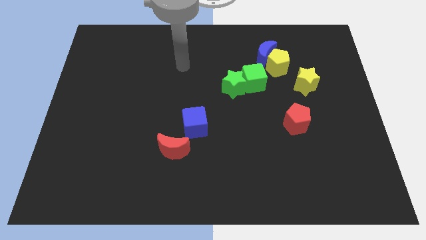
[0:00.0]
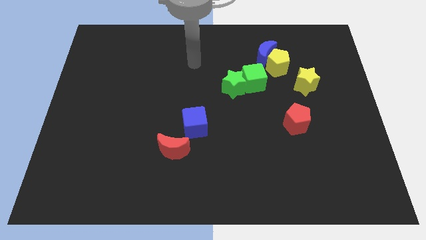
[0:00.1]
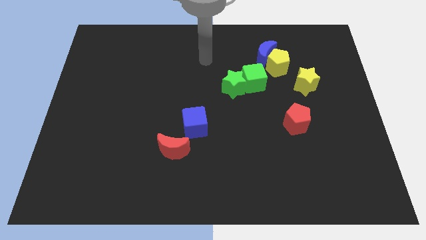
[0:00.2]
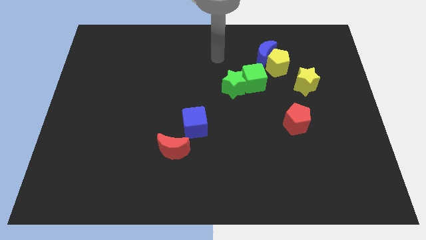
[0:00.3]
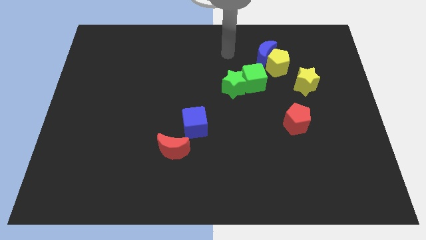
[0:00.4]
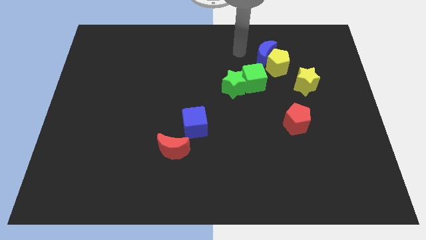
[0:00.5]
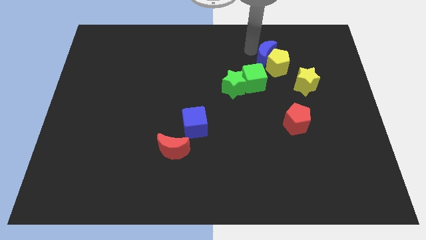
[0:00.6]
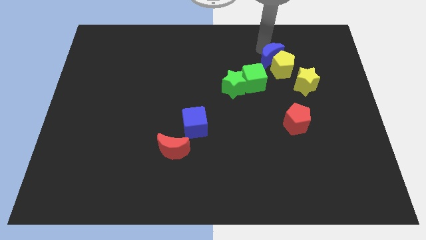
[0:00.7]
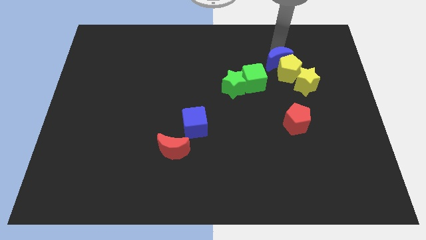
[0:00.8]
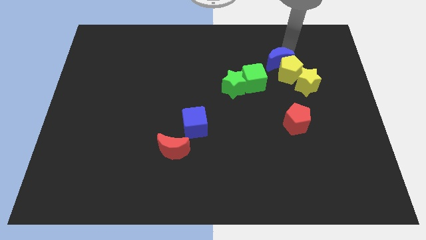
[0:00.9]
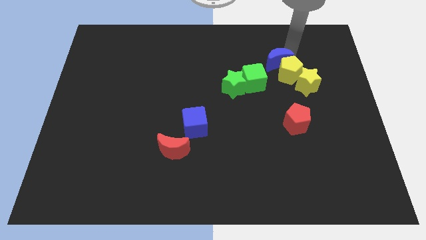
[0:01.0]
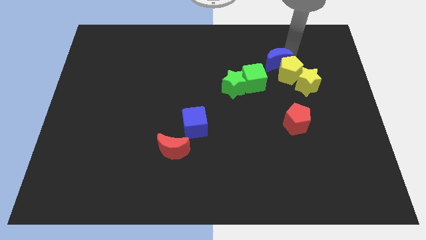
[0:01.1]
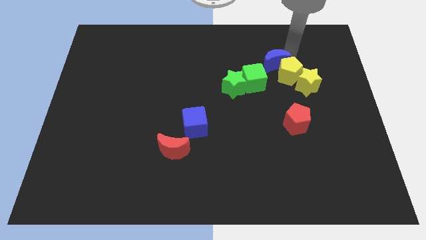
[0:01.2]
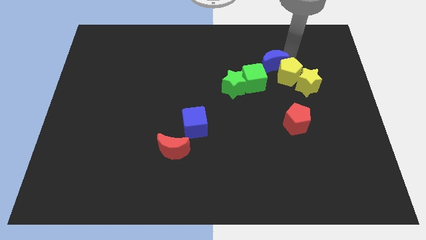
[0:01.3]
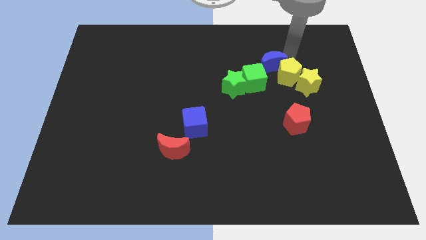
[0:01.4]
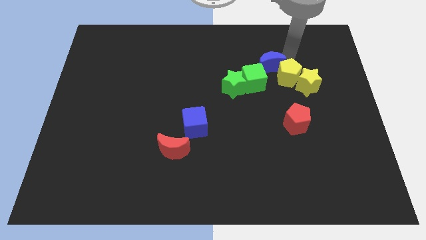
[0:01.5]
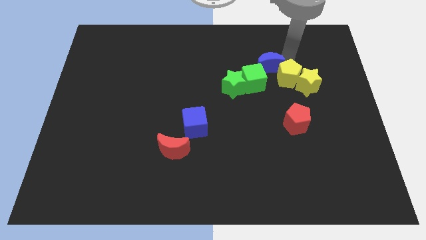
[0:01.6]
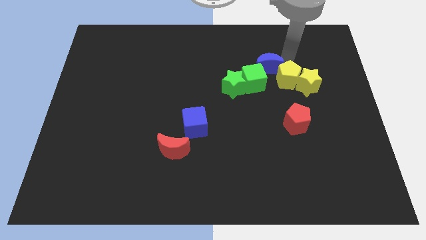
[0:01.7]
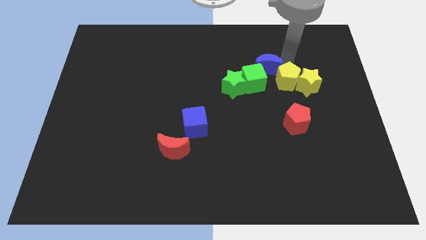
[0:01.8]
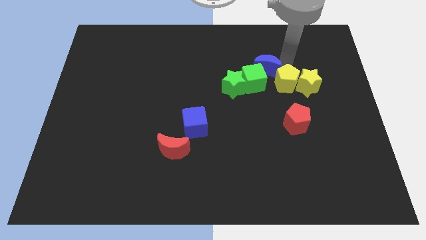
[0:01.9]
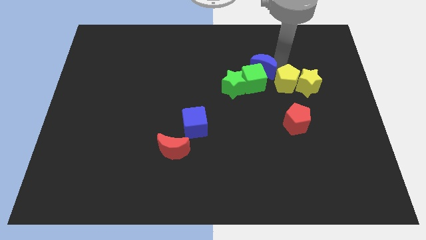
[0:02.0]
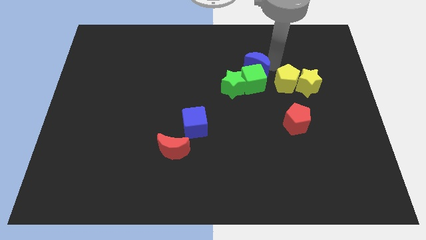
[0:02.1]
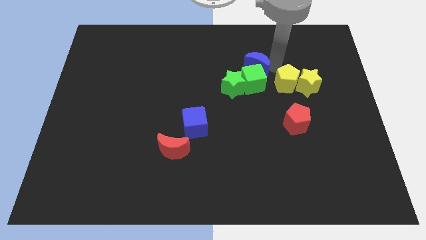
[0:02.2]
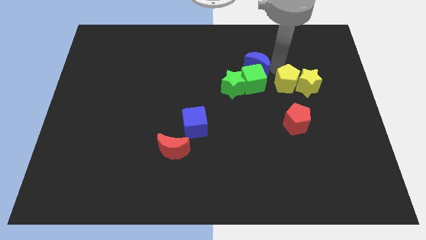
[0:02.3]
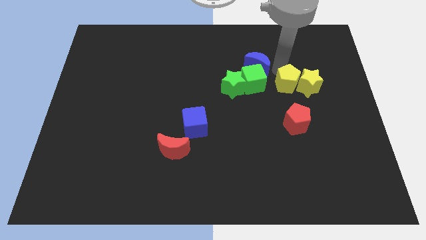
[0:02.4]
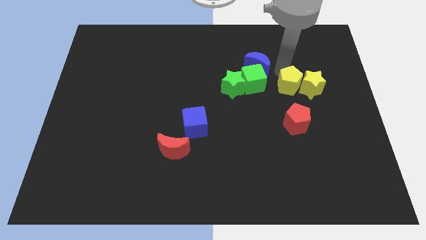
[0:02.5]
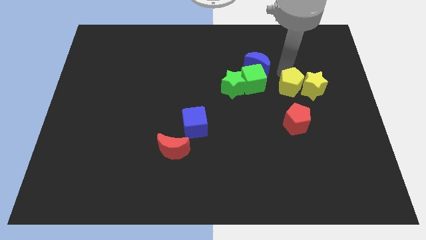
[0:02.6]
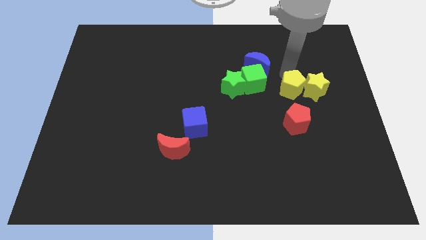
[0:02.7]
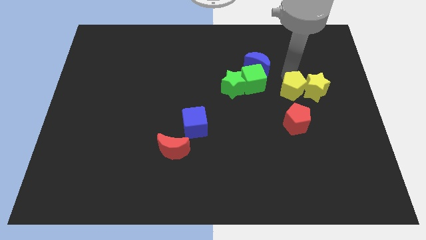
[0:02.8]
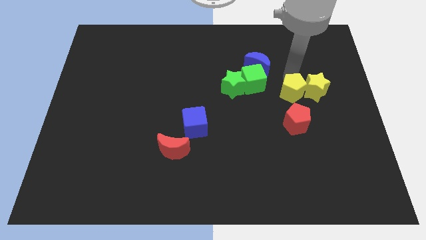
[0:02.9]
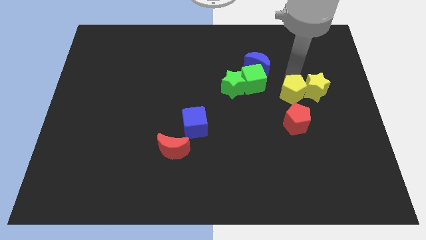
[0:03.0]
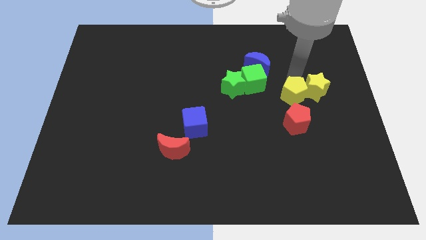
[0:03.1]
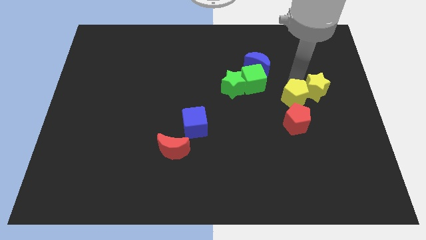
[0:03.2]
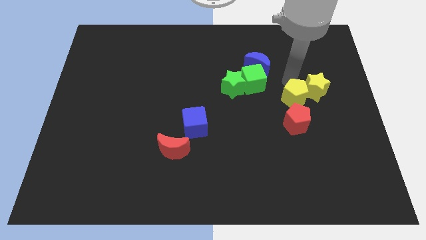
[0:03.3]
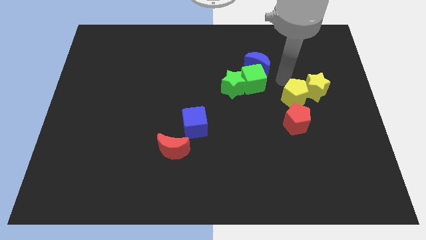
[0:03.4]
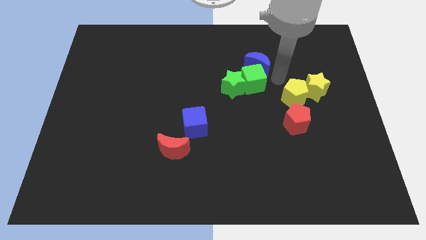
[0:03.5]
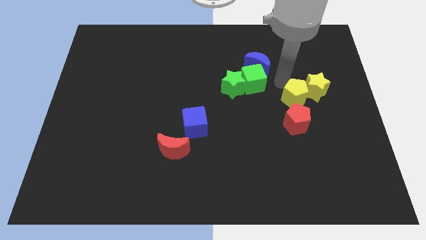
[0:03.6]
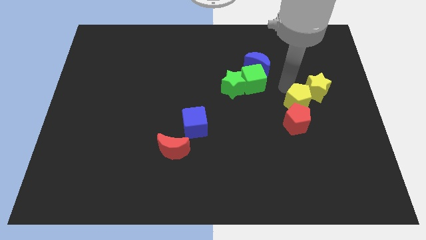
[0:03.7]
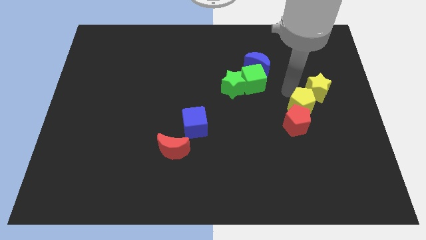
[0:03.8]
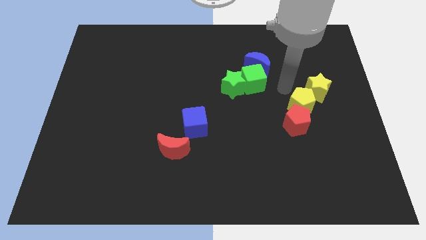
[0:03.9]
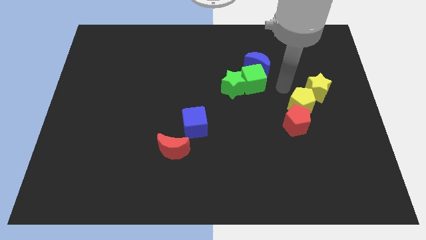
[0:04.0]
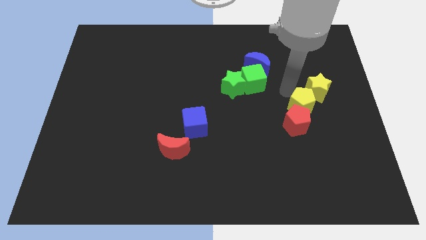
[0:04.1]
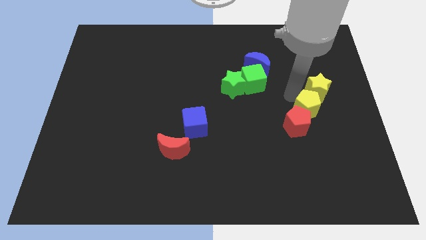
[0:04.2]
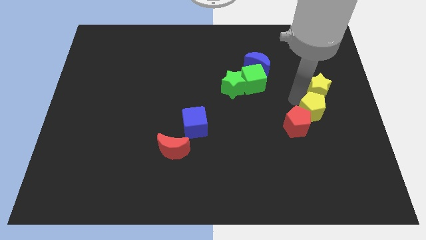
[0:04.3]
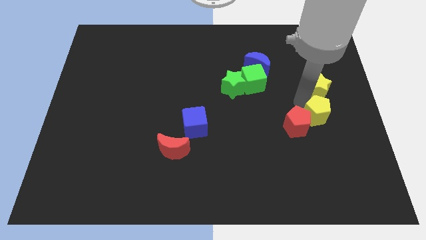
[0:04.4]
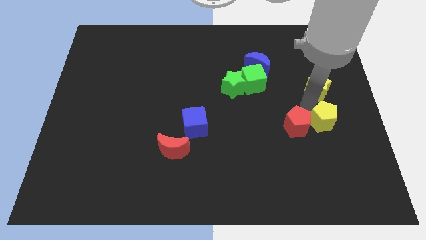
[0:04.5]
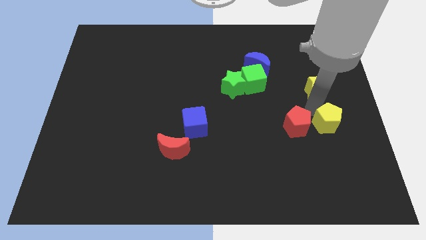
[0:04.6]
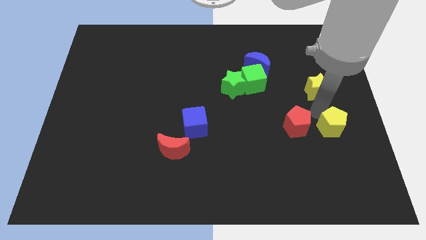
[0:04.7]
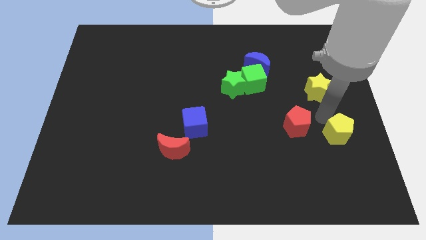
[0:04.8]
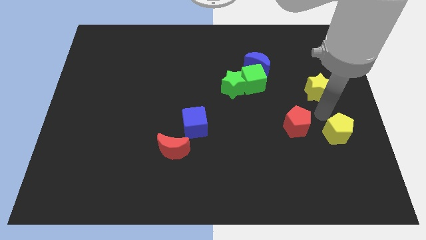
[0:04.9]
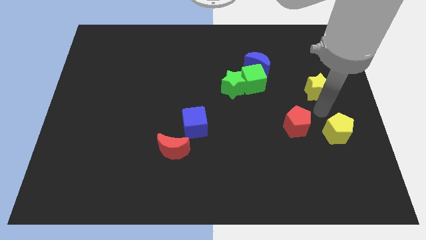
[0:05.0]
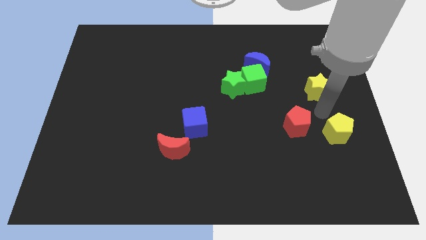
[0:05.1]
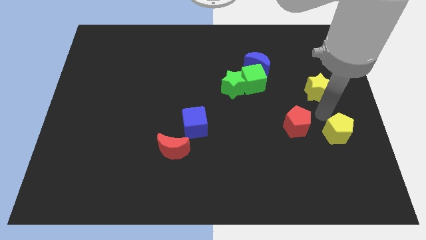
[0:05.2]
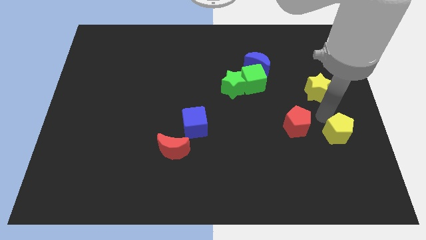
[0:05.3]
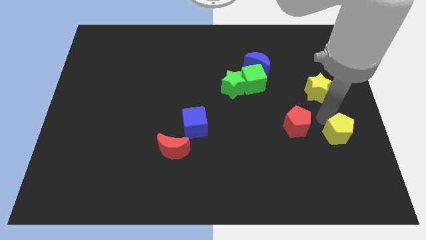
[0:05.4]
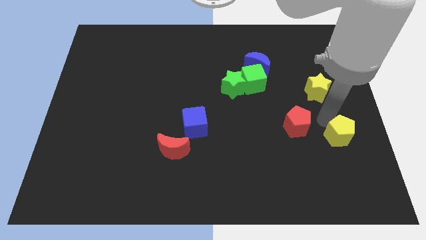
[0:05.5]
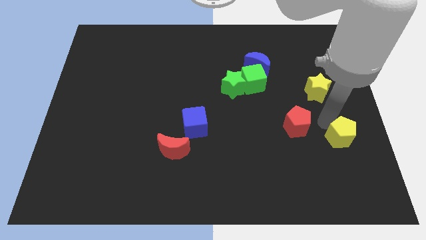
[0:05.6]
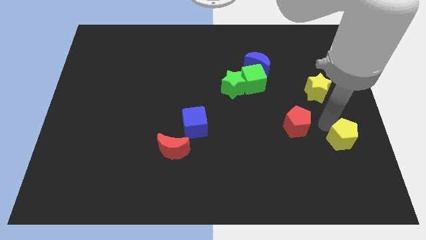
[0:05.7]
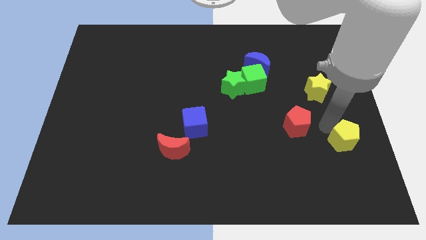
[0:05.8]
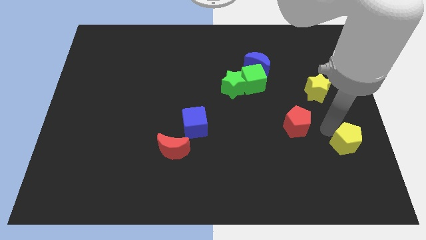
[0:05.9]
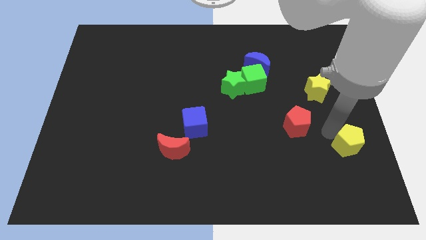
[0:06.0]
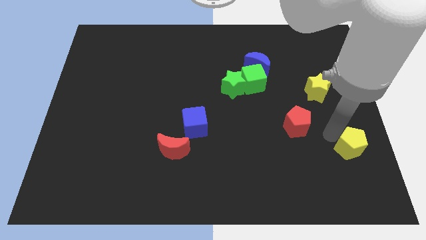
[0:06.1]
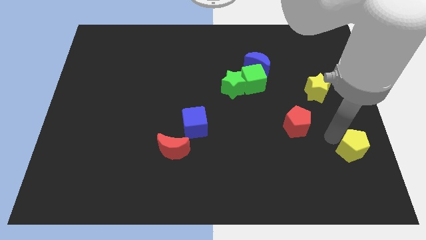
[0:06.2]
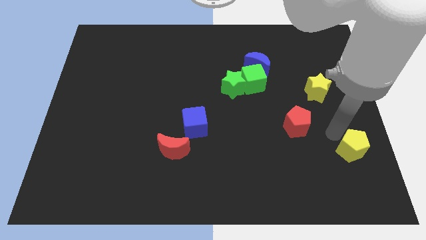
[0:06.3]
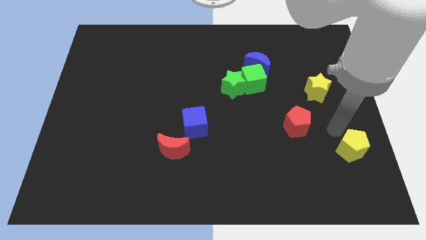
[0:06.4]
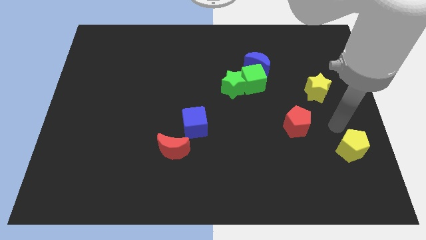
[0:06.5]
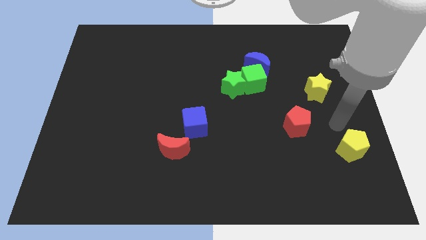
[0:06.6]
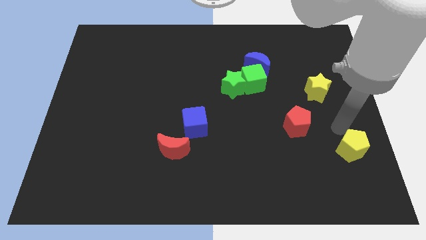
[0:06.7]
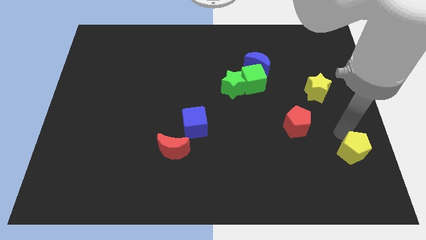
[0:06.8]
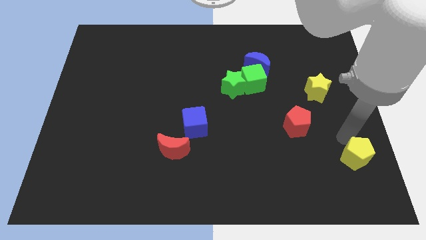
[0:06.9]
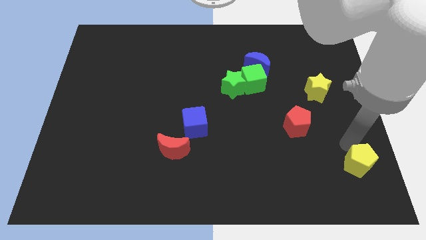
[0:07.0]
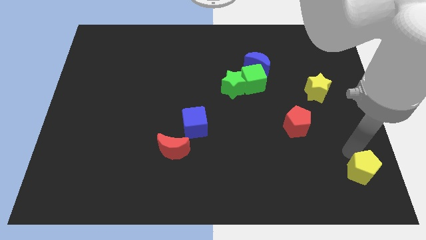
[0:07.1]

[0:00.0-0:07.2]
push the yellow pentagon to the bottom right corner
